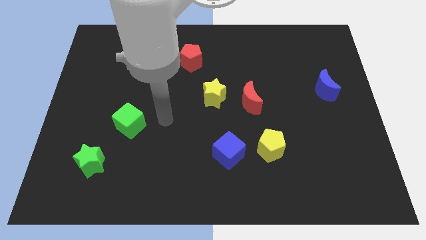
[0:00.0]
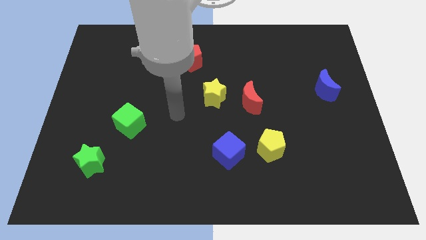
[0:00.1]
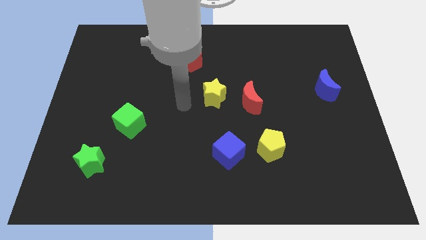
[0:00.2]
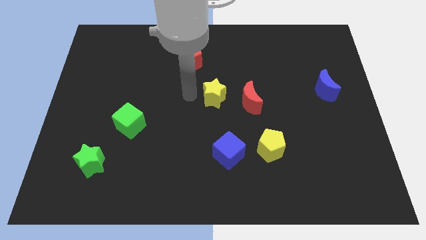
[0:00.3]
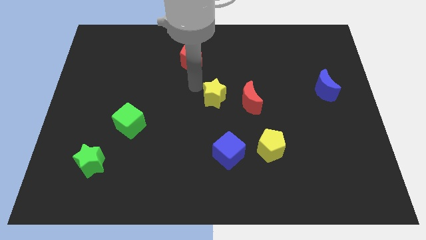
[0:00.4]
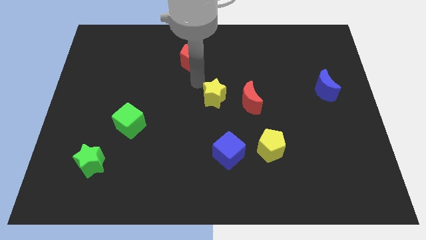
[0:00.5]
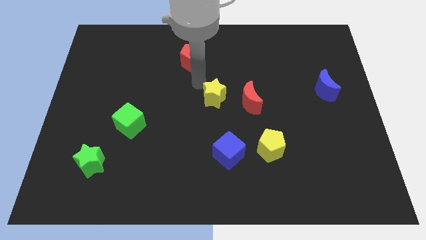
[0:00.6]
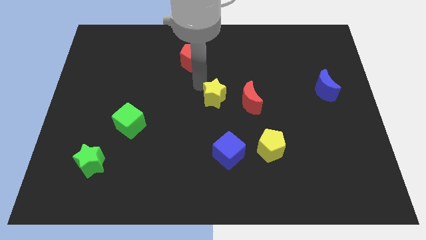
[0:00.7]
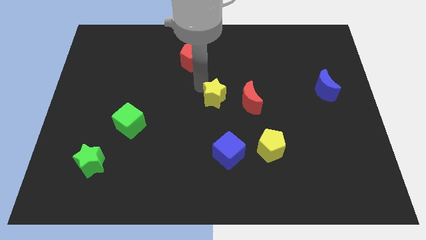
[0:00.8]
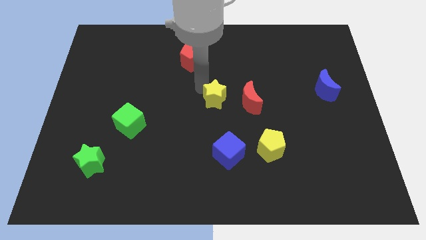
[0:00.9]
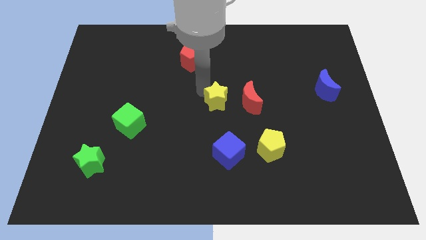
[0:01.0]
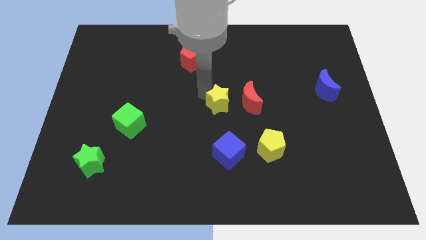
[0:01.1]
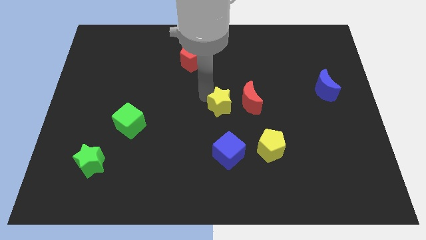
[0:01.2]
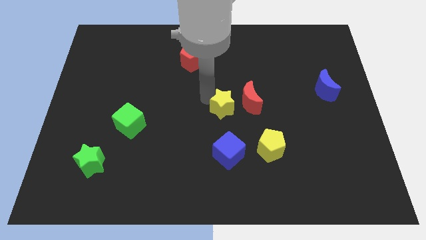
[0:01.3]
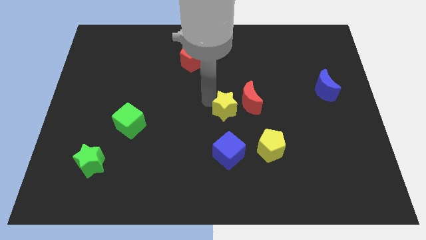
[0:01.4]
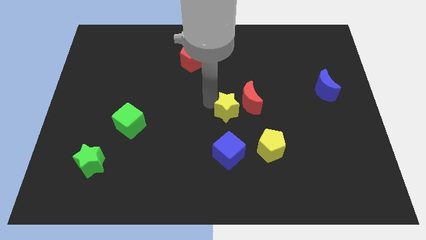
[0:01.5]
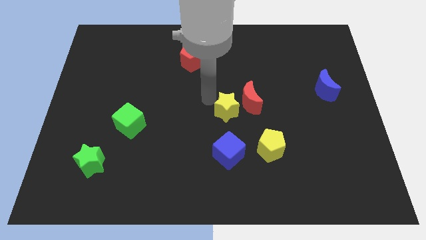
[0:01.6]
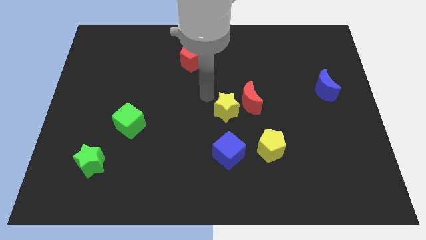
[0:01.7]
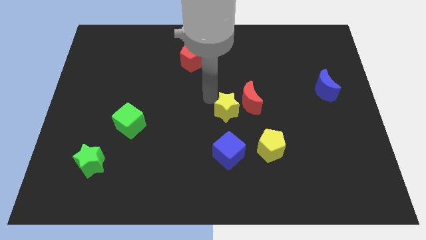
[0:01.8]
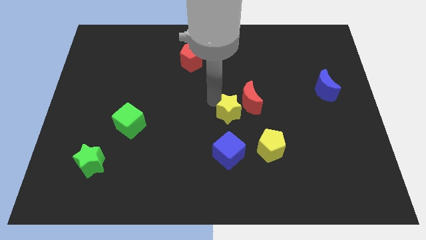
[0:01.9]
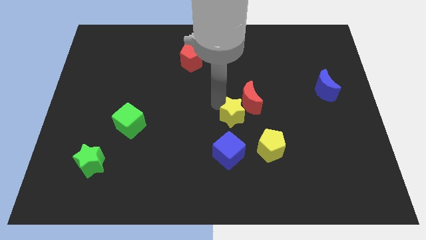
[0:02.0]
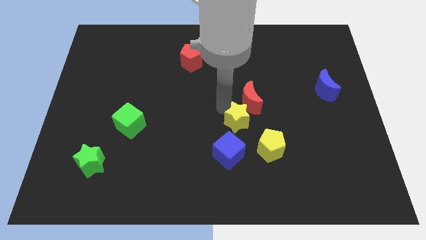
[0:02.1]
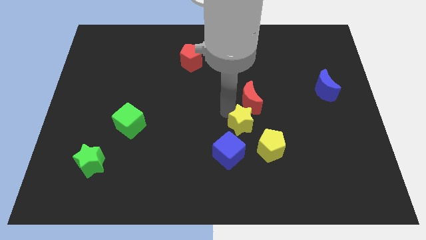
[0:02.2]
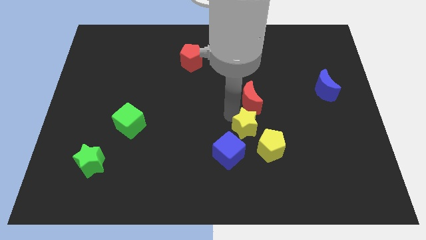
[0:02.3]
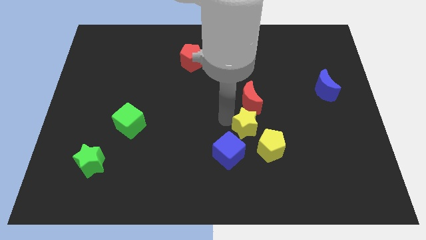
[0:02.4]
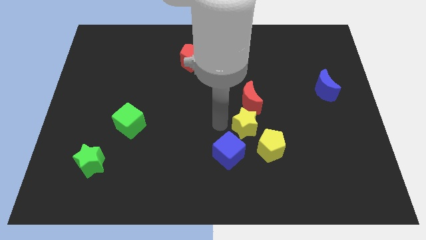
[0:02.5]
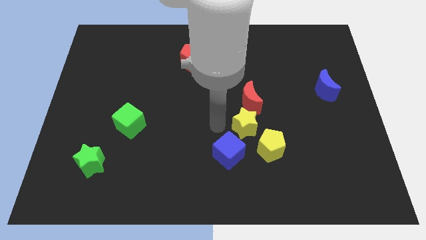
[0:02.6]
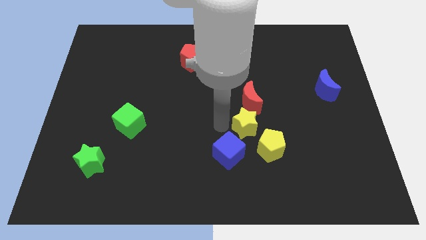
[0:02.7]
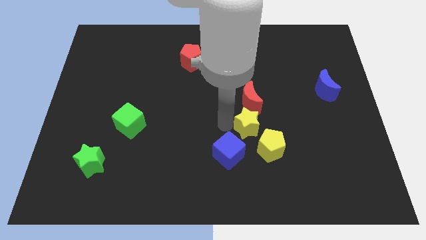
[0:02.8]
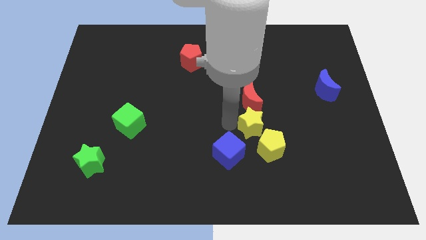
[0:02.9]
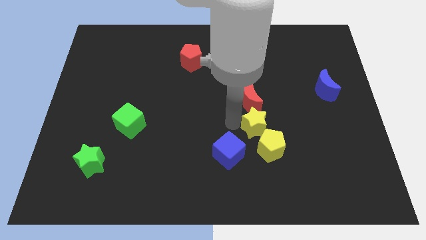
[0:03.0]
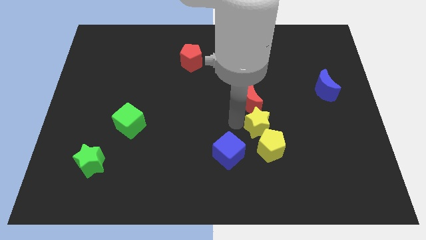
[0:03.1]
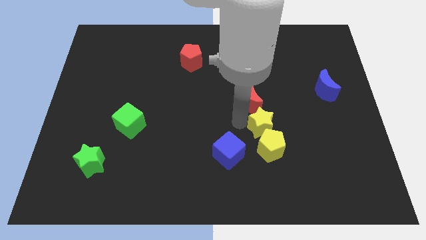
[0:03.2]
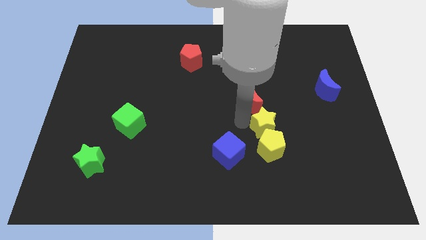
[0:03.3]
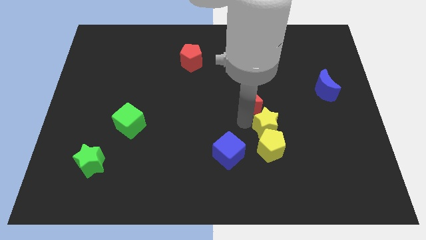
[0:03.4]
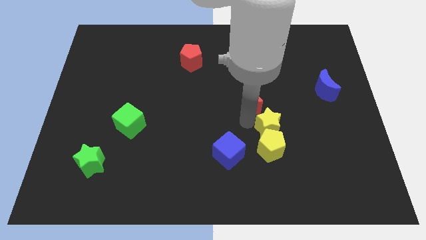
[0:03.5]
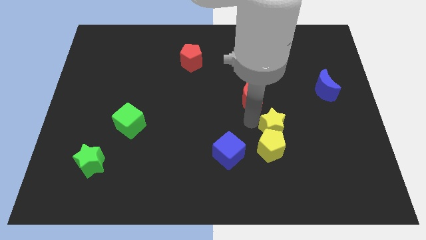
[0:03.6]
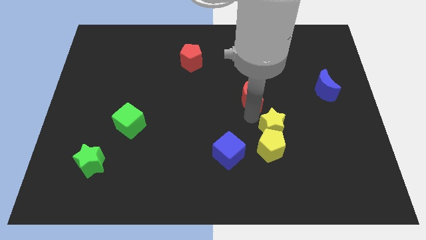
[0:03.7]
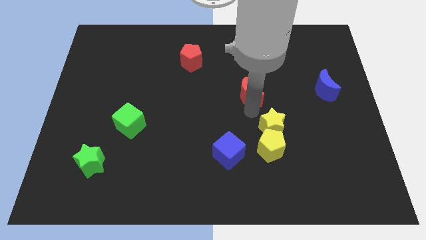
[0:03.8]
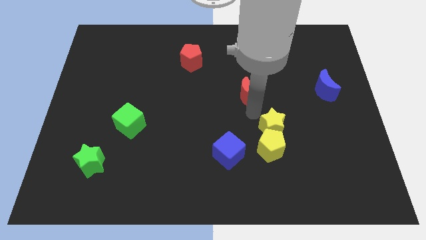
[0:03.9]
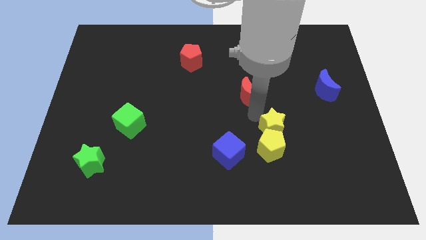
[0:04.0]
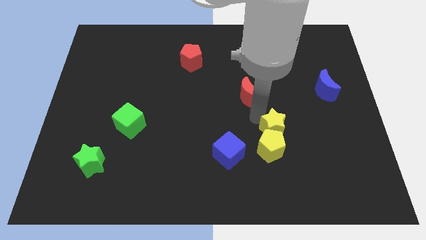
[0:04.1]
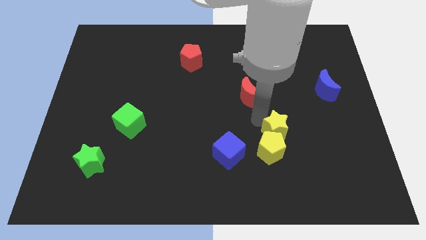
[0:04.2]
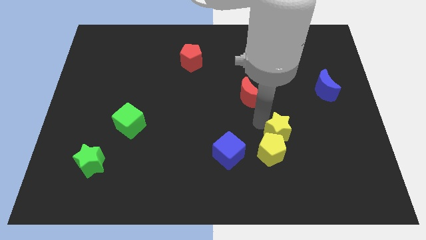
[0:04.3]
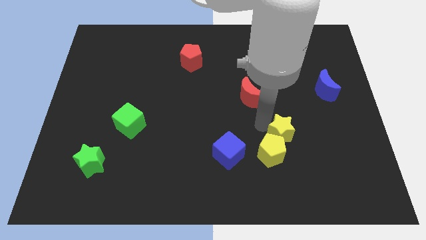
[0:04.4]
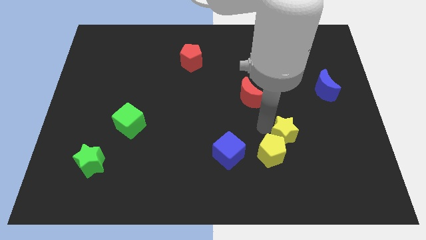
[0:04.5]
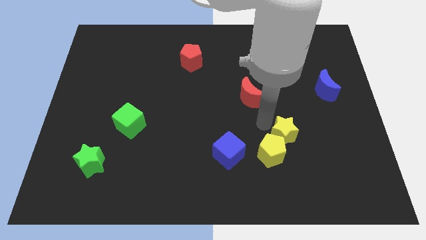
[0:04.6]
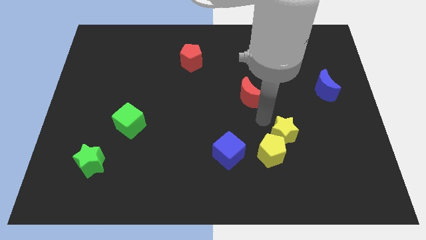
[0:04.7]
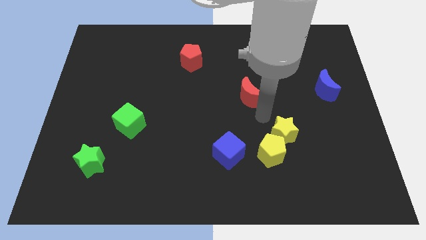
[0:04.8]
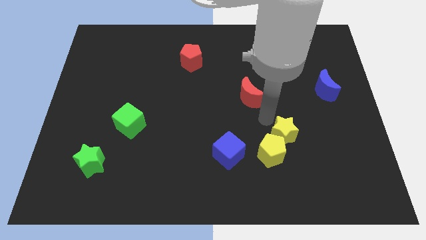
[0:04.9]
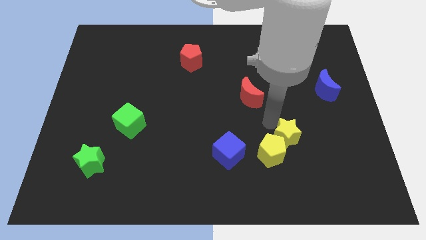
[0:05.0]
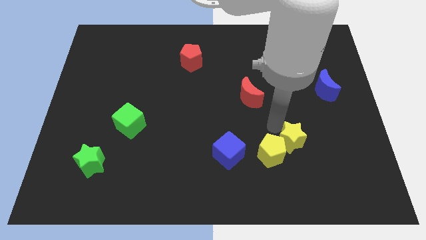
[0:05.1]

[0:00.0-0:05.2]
push the yellow star down and then right

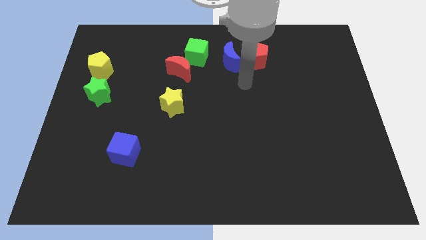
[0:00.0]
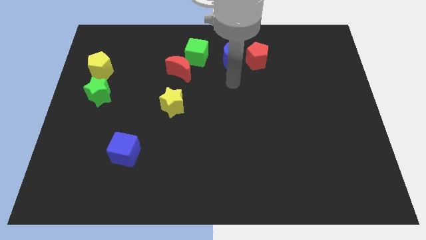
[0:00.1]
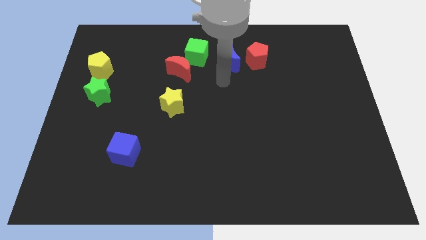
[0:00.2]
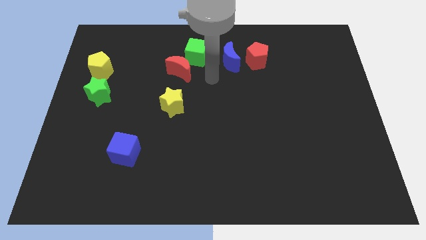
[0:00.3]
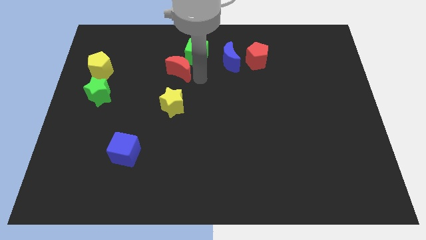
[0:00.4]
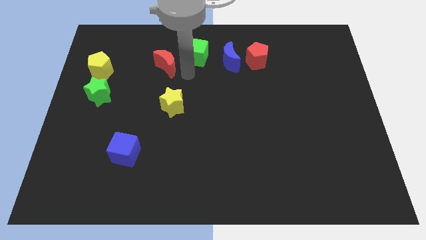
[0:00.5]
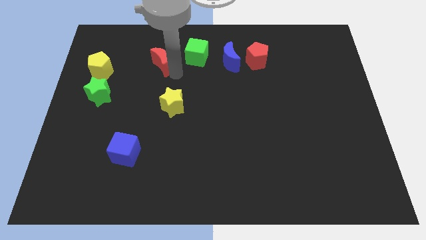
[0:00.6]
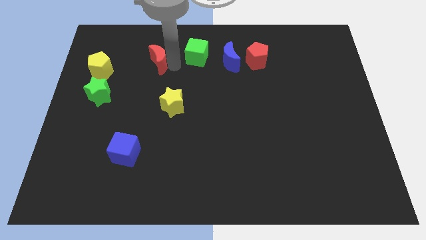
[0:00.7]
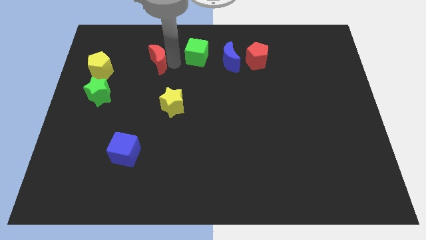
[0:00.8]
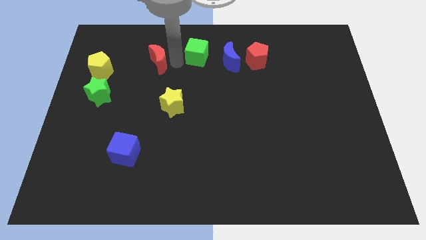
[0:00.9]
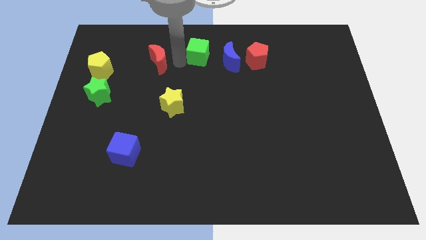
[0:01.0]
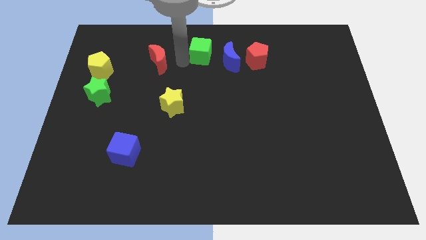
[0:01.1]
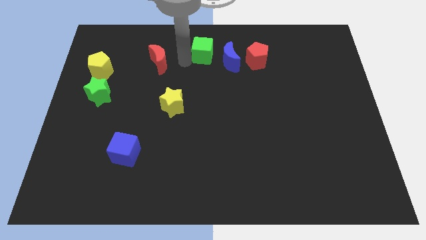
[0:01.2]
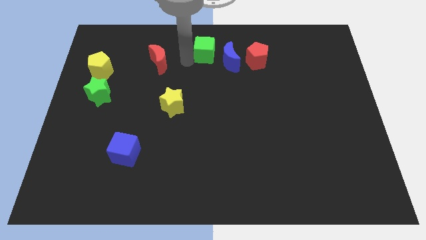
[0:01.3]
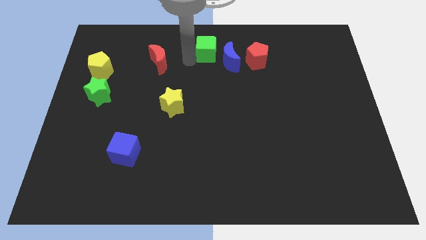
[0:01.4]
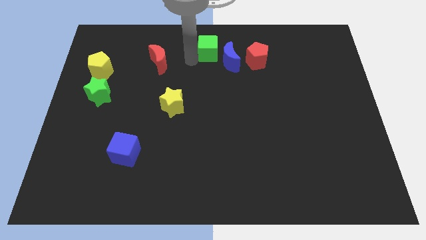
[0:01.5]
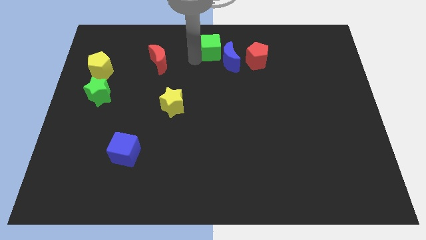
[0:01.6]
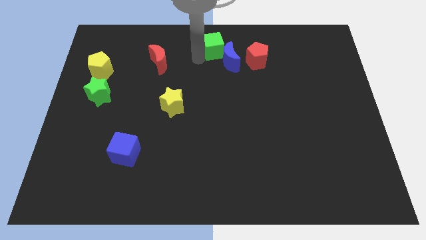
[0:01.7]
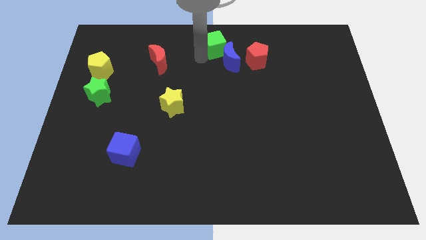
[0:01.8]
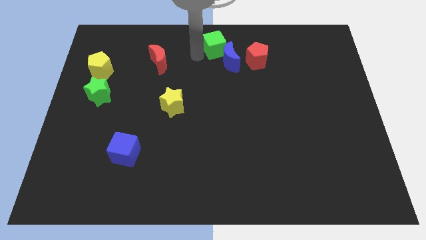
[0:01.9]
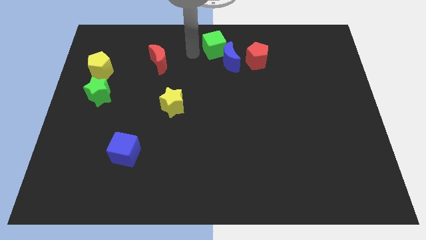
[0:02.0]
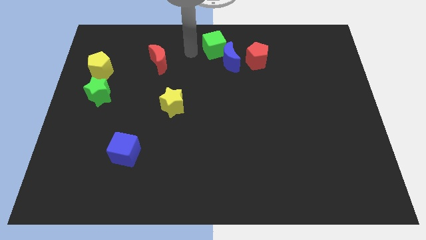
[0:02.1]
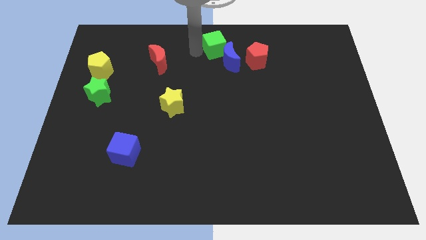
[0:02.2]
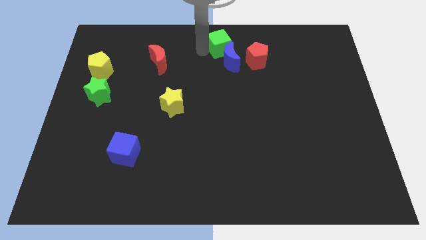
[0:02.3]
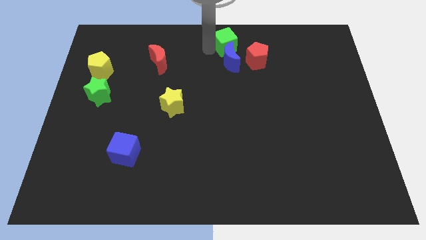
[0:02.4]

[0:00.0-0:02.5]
slightly move the green cube right

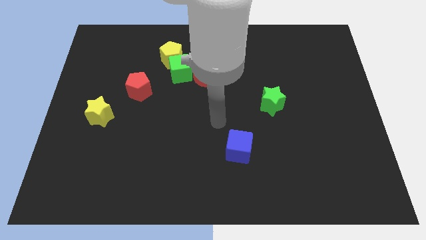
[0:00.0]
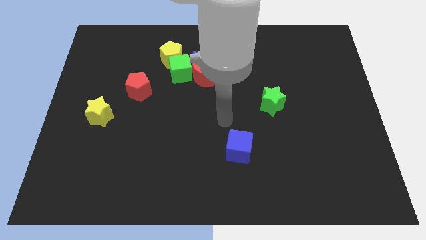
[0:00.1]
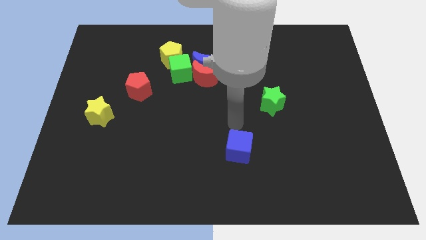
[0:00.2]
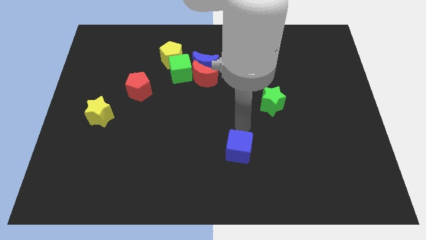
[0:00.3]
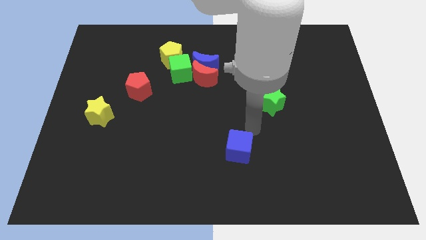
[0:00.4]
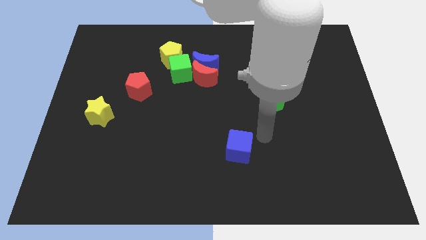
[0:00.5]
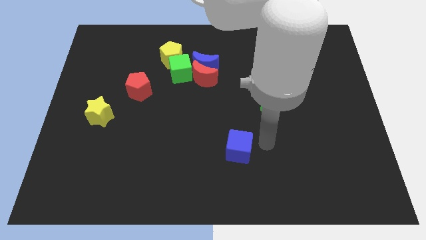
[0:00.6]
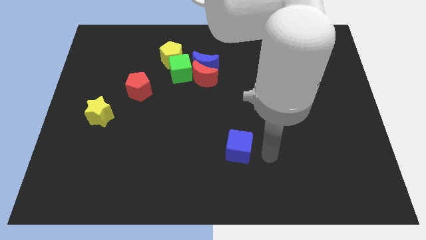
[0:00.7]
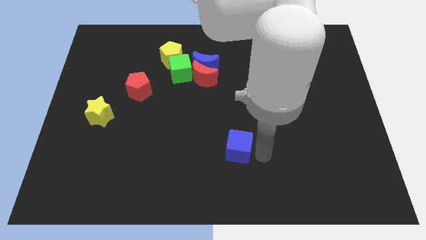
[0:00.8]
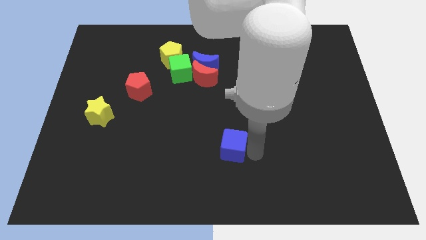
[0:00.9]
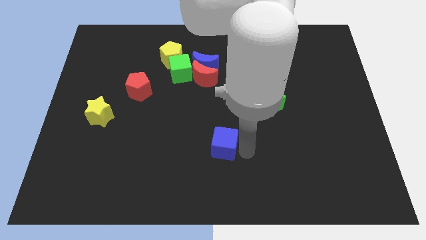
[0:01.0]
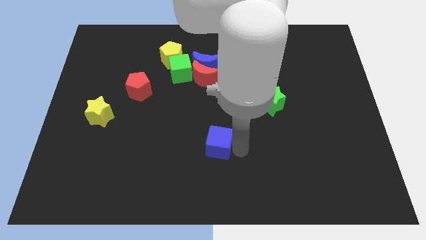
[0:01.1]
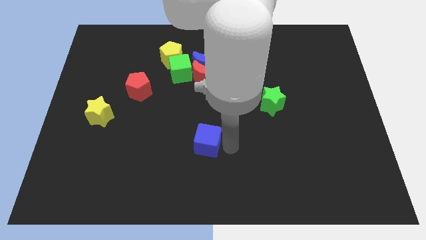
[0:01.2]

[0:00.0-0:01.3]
slightly slide the blue cube left
